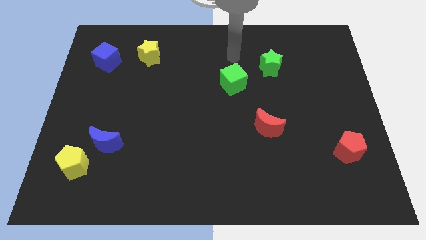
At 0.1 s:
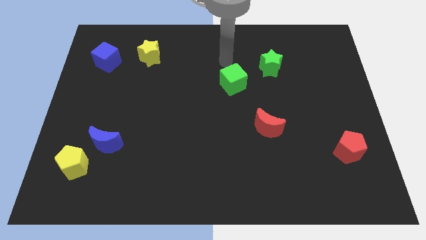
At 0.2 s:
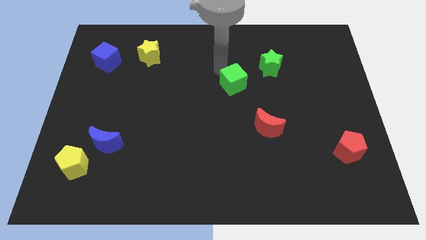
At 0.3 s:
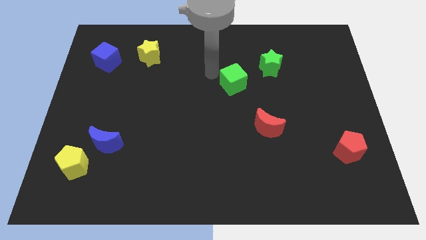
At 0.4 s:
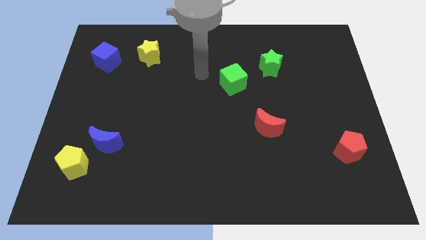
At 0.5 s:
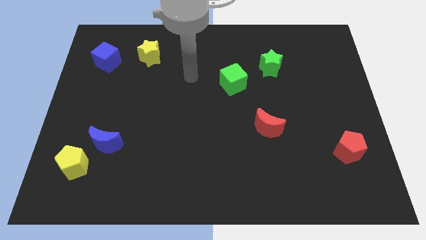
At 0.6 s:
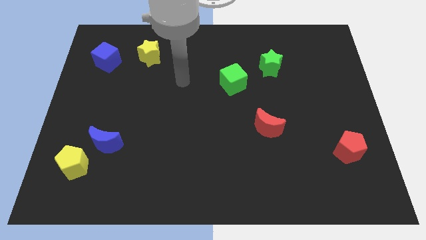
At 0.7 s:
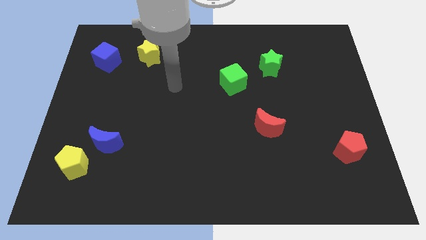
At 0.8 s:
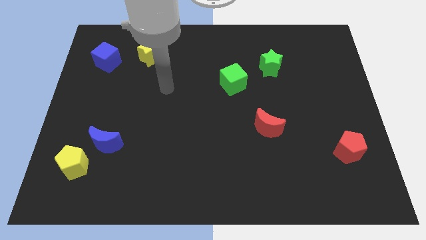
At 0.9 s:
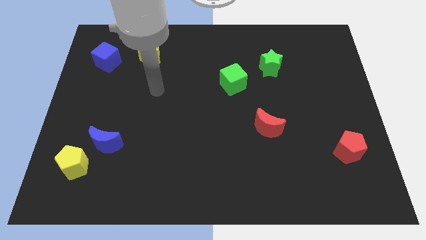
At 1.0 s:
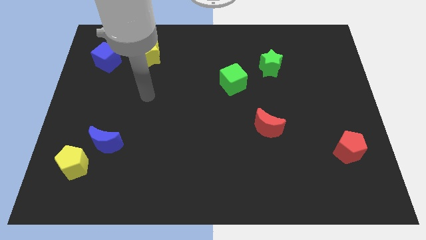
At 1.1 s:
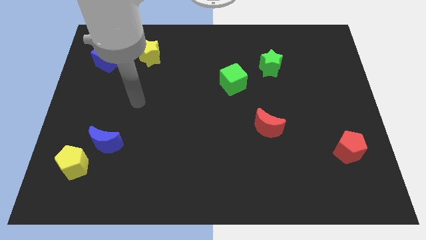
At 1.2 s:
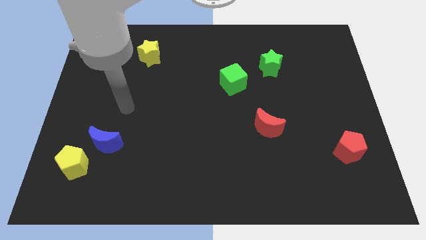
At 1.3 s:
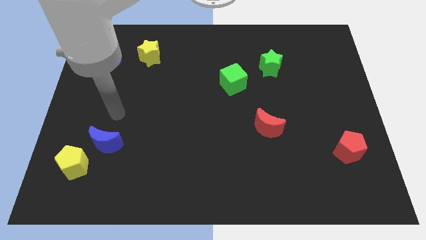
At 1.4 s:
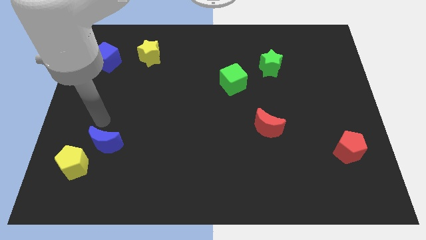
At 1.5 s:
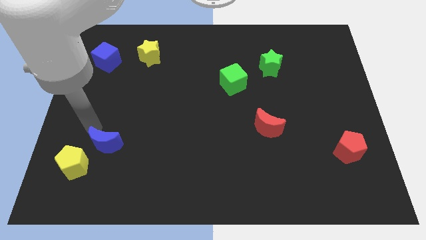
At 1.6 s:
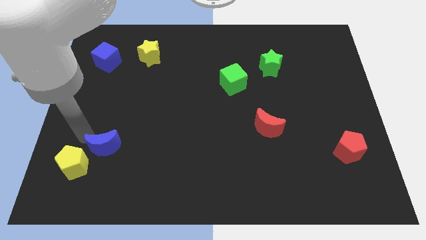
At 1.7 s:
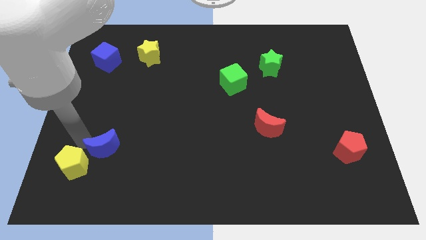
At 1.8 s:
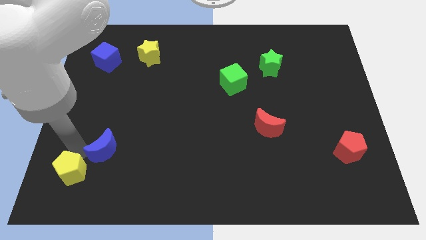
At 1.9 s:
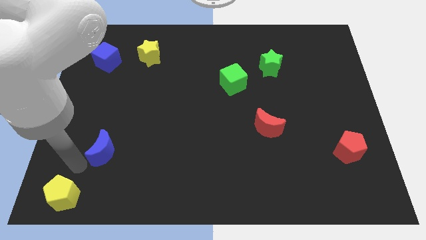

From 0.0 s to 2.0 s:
pull the blue moon apart from the yellow pentagon

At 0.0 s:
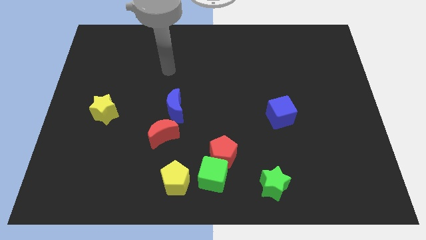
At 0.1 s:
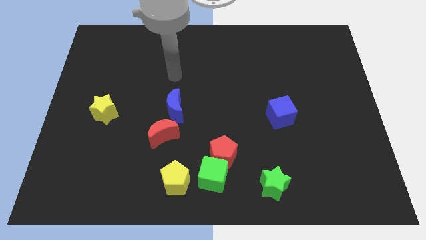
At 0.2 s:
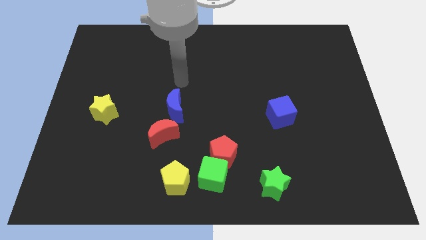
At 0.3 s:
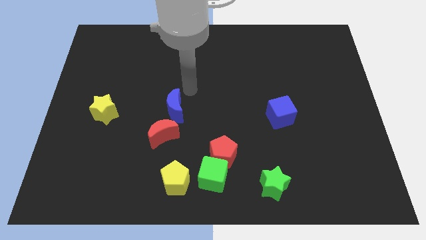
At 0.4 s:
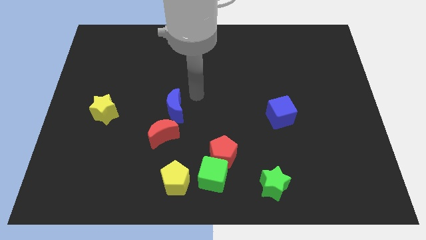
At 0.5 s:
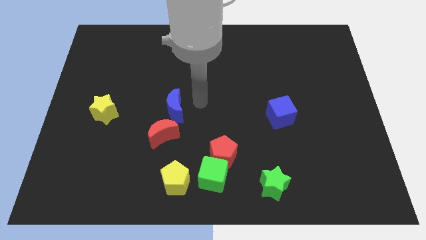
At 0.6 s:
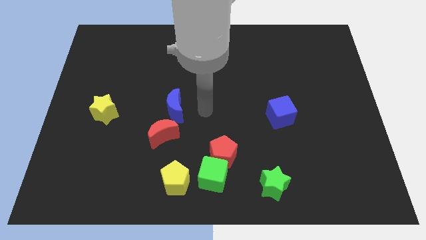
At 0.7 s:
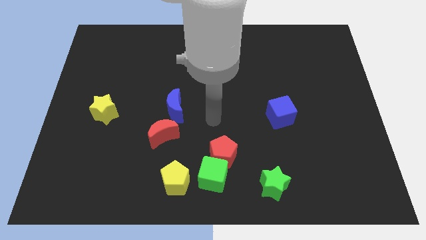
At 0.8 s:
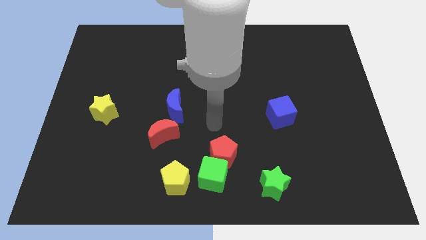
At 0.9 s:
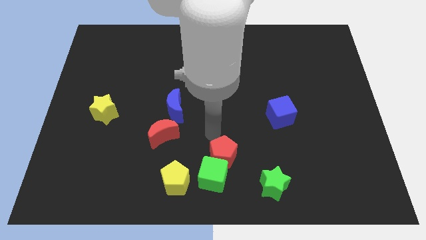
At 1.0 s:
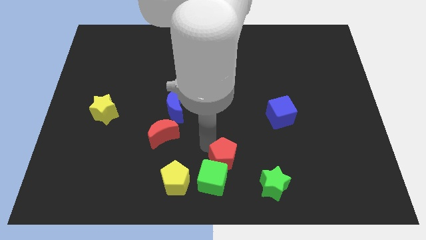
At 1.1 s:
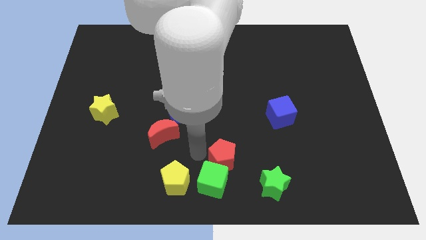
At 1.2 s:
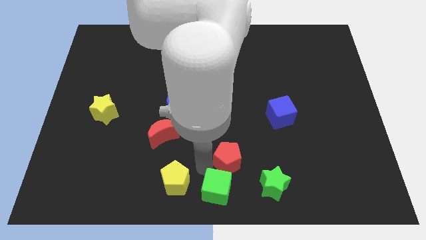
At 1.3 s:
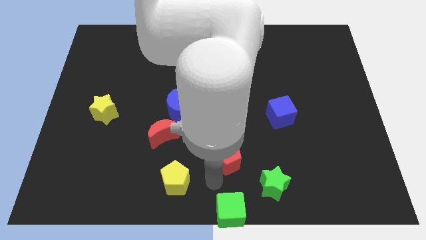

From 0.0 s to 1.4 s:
separate the red pentagon from the green cube

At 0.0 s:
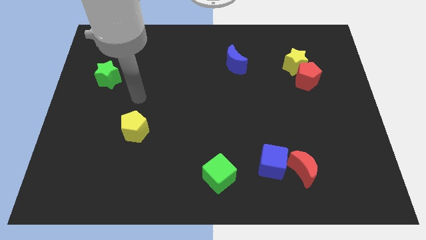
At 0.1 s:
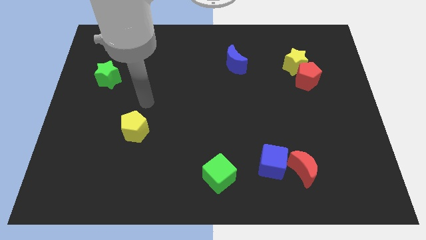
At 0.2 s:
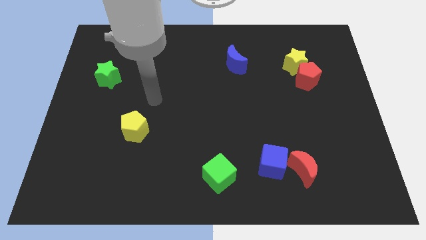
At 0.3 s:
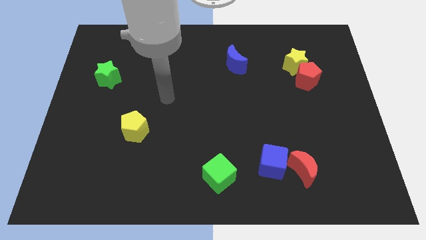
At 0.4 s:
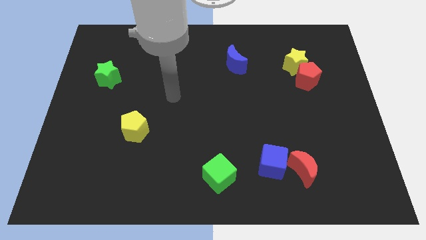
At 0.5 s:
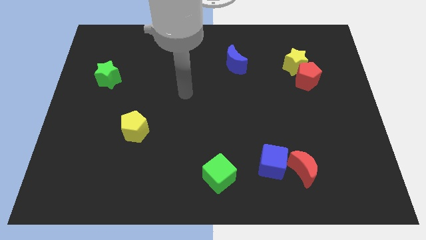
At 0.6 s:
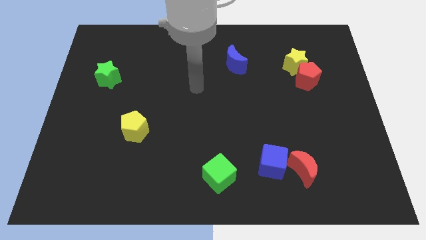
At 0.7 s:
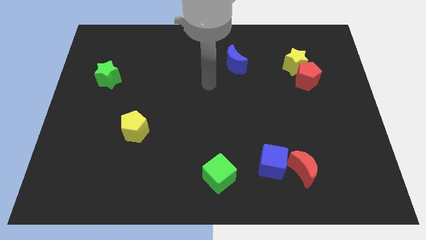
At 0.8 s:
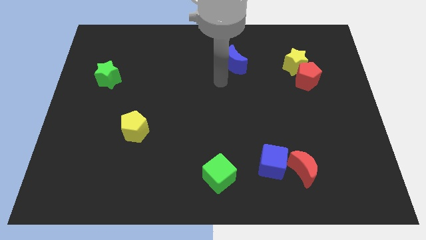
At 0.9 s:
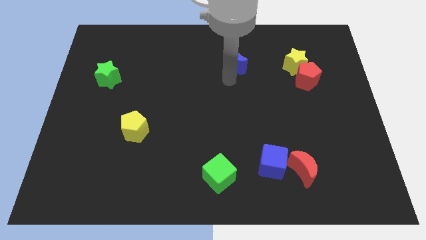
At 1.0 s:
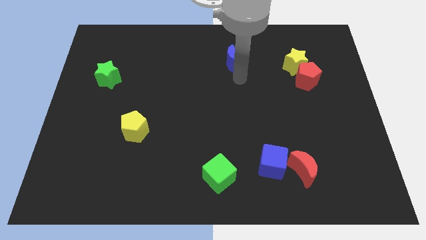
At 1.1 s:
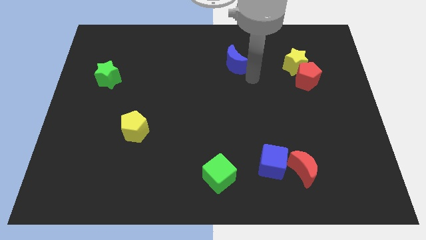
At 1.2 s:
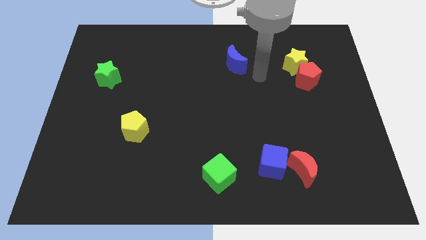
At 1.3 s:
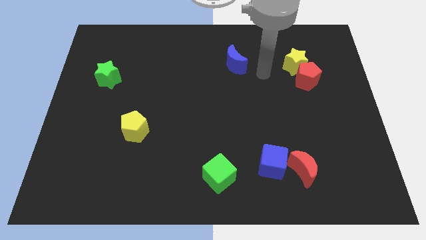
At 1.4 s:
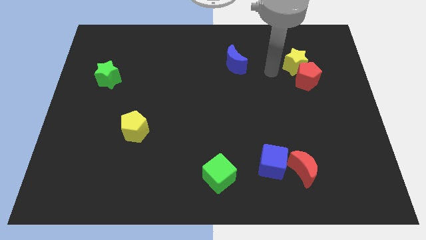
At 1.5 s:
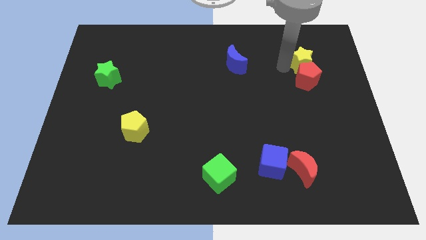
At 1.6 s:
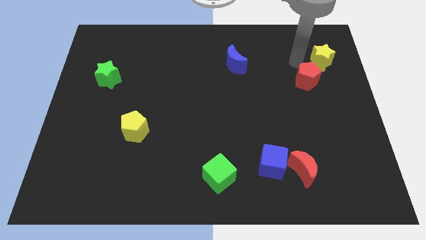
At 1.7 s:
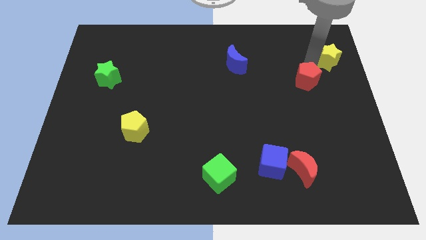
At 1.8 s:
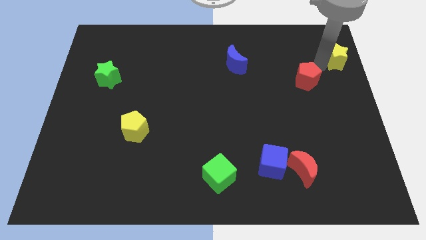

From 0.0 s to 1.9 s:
separate the red pentagon from the yellow star

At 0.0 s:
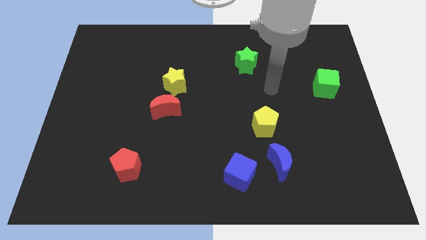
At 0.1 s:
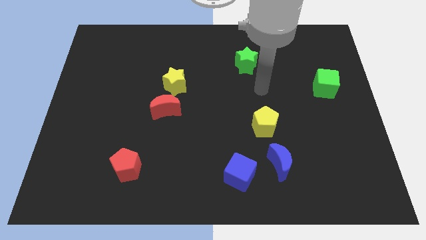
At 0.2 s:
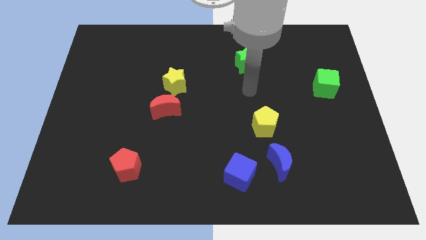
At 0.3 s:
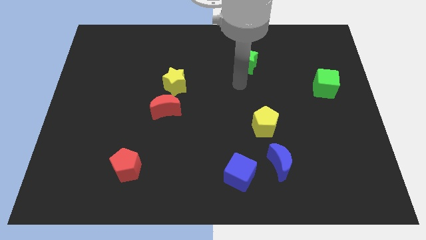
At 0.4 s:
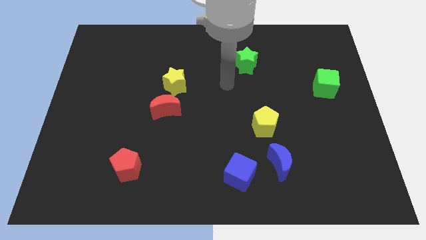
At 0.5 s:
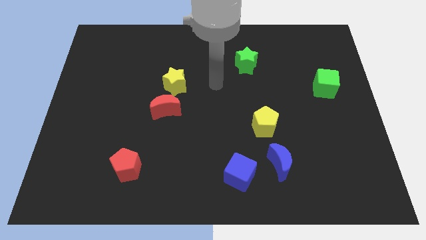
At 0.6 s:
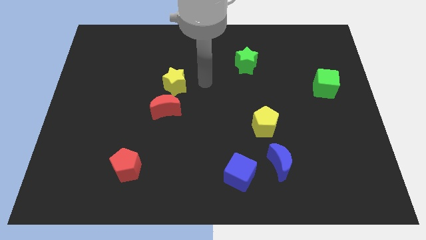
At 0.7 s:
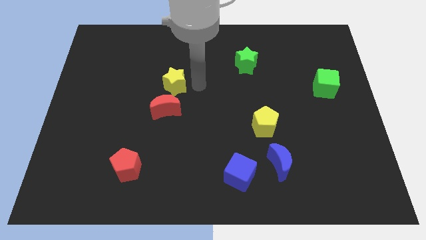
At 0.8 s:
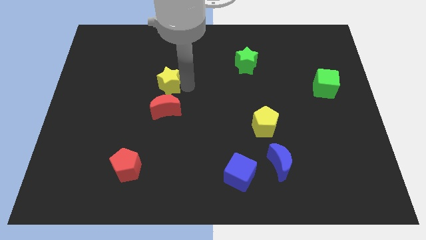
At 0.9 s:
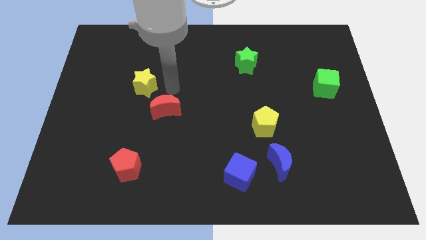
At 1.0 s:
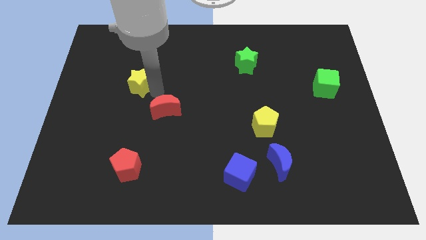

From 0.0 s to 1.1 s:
pull the red moon apart from the yellow star

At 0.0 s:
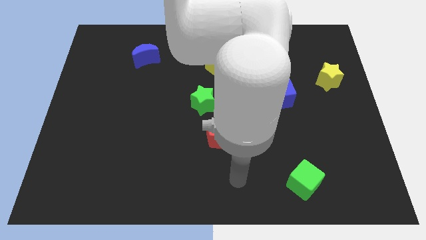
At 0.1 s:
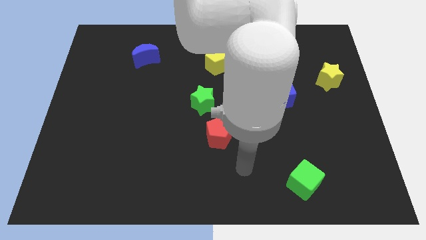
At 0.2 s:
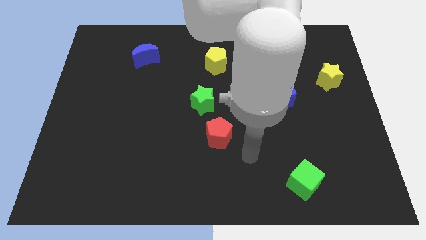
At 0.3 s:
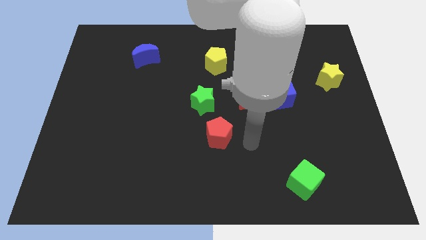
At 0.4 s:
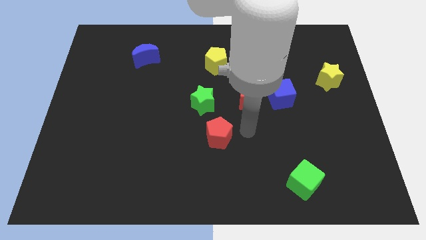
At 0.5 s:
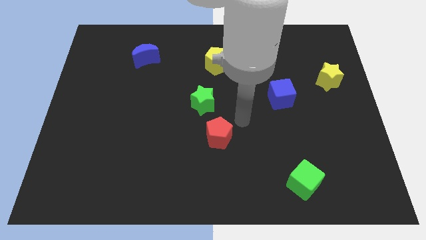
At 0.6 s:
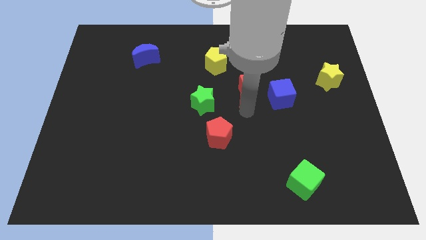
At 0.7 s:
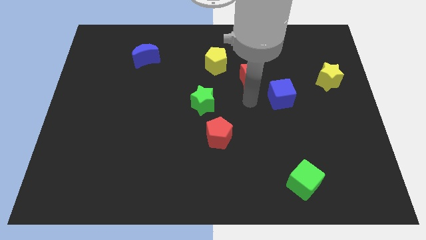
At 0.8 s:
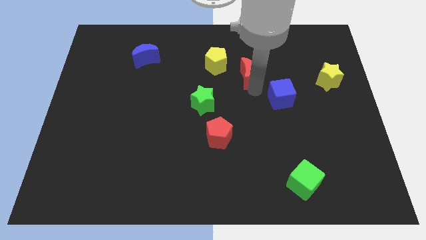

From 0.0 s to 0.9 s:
pull the blue cube apart from the red moon

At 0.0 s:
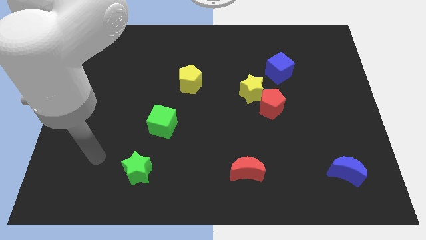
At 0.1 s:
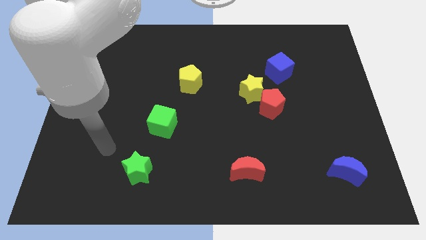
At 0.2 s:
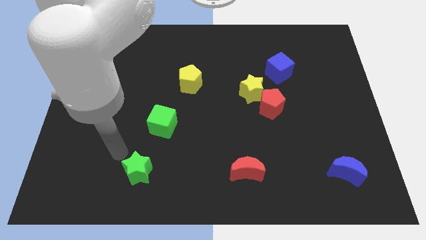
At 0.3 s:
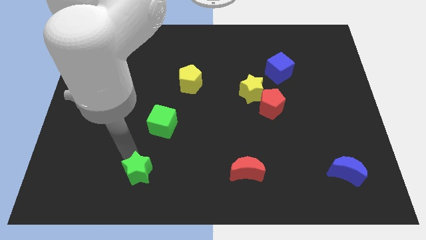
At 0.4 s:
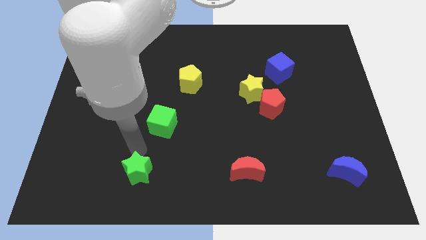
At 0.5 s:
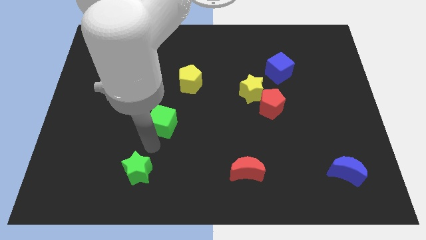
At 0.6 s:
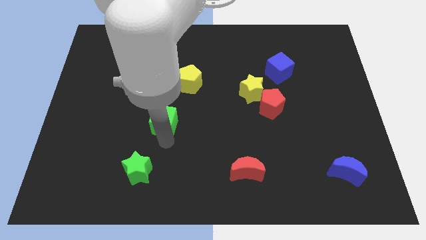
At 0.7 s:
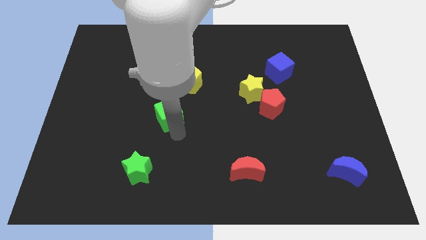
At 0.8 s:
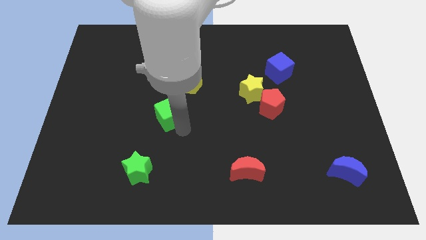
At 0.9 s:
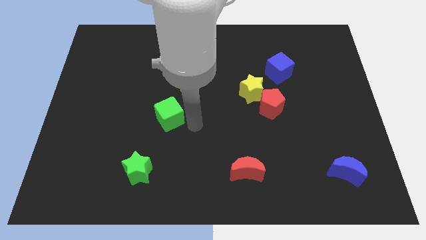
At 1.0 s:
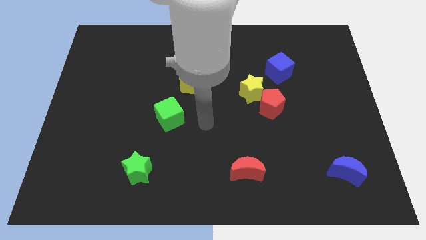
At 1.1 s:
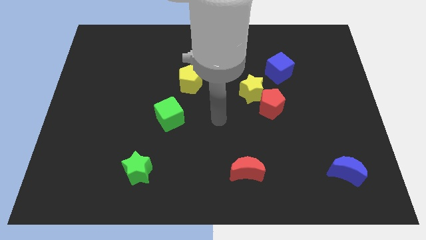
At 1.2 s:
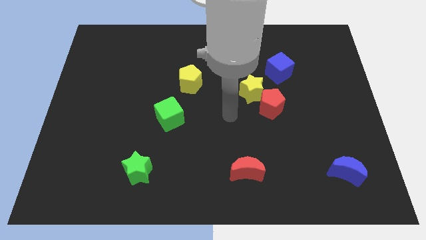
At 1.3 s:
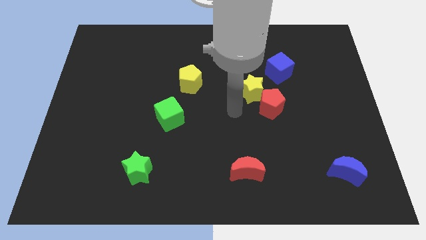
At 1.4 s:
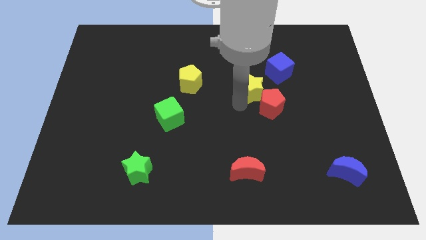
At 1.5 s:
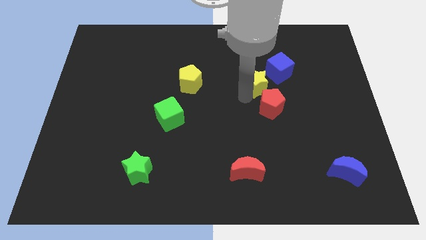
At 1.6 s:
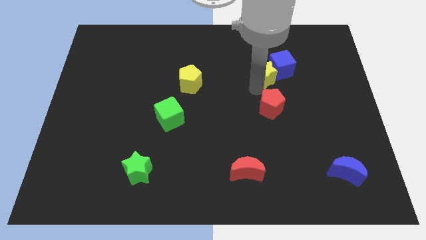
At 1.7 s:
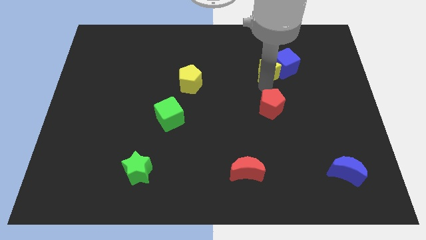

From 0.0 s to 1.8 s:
pull the red pentagon apart from the yellow star

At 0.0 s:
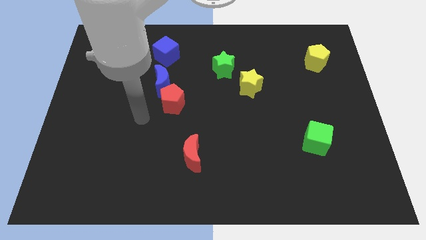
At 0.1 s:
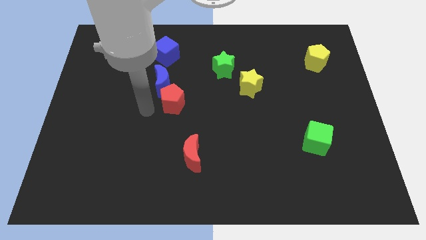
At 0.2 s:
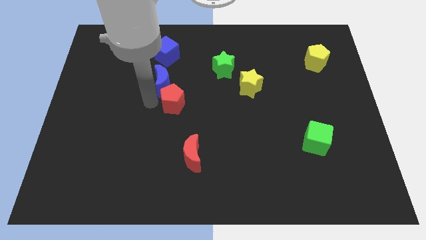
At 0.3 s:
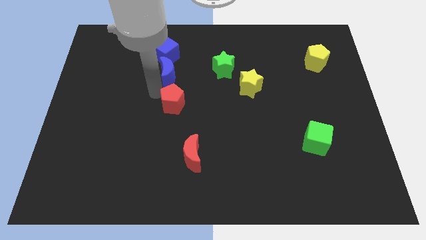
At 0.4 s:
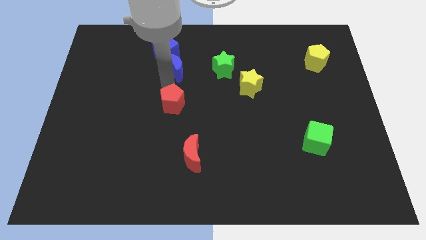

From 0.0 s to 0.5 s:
move the red pentagon away from the blue moon
